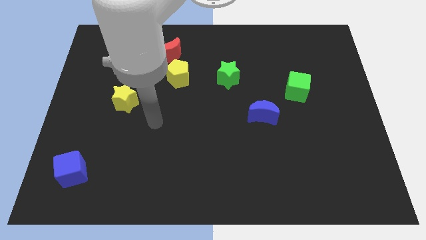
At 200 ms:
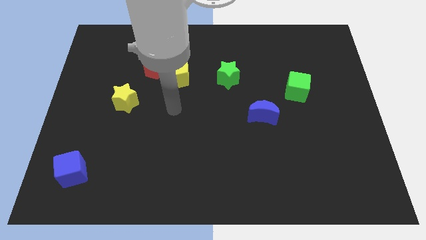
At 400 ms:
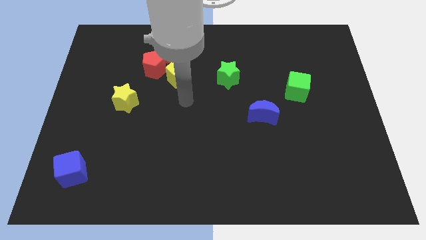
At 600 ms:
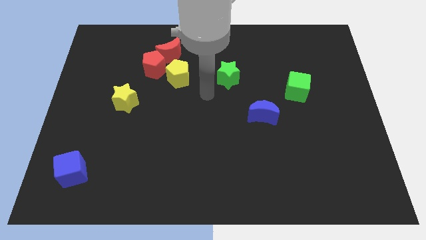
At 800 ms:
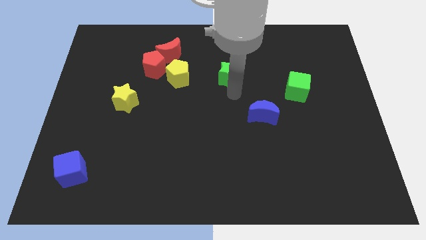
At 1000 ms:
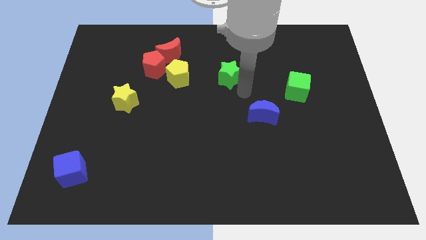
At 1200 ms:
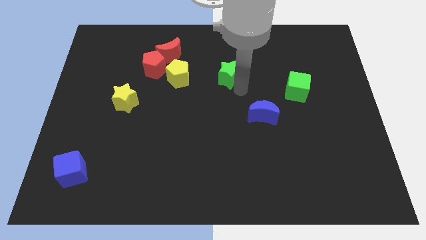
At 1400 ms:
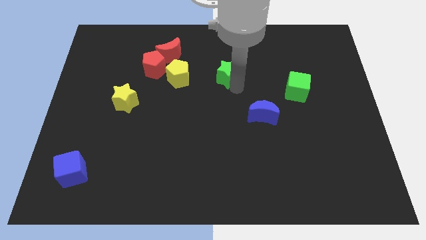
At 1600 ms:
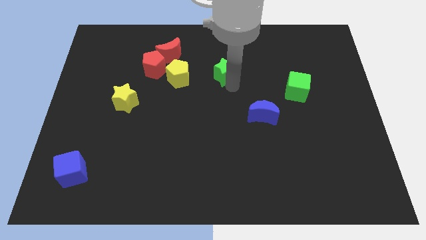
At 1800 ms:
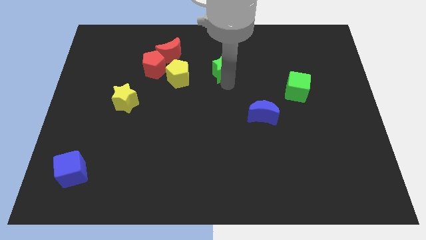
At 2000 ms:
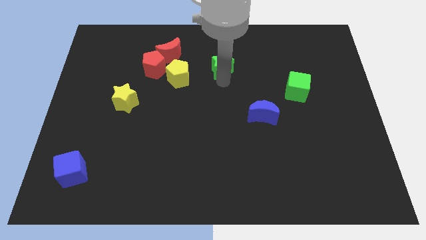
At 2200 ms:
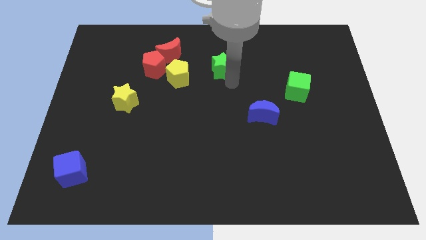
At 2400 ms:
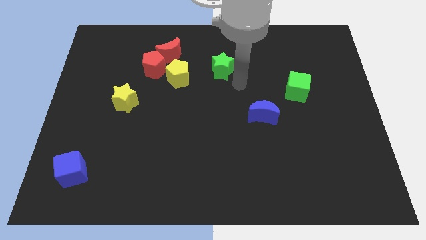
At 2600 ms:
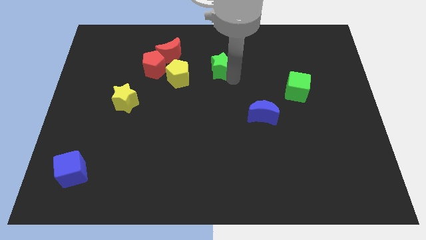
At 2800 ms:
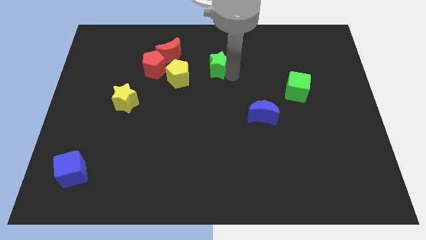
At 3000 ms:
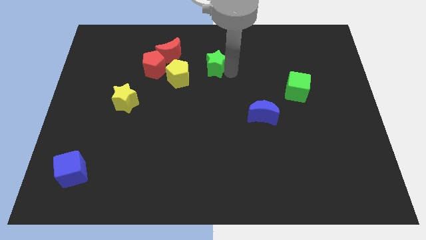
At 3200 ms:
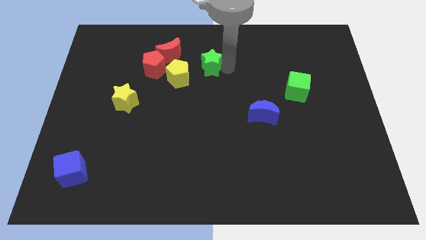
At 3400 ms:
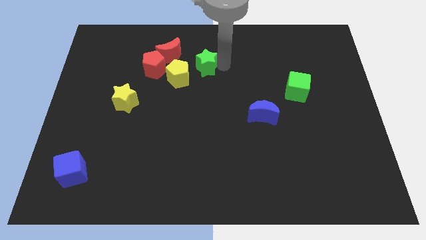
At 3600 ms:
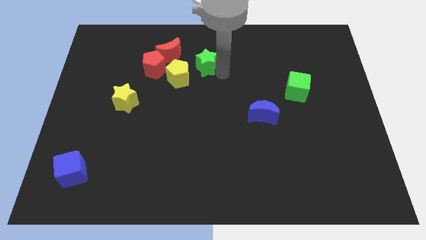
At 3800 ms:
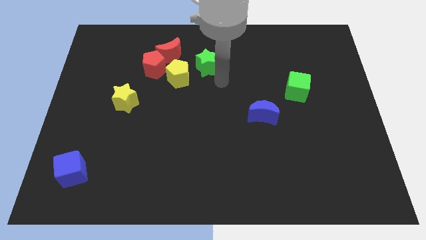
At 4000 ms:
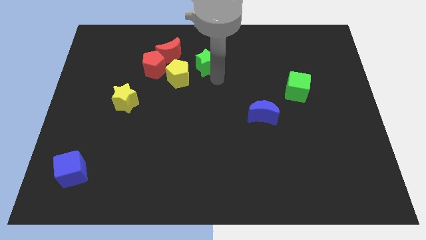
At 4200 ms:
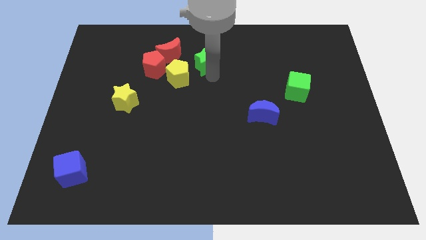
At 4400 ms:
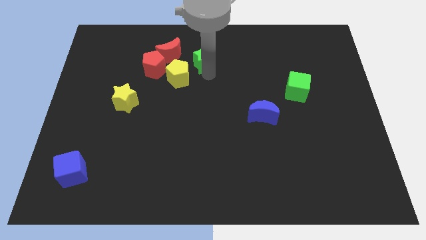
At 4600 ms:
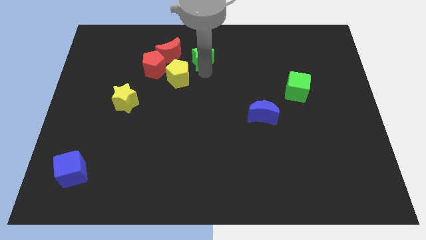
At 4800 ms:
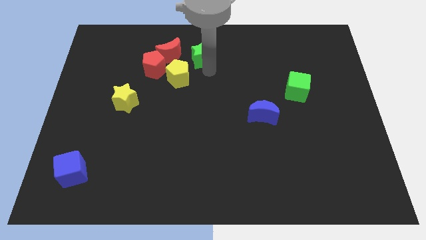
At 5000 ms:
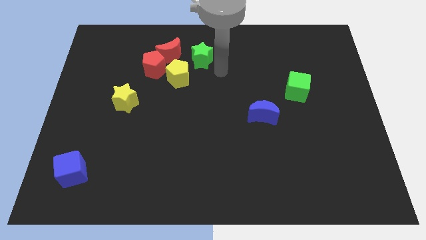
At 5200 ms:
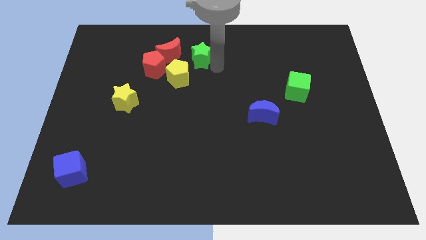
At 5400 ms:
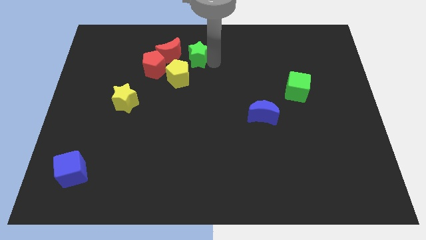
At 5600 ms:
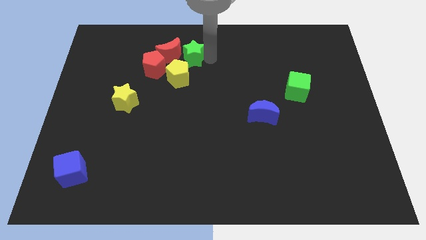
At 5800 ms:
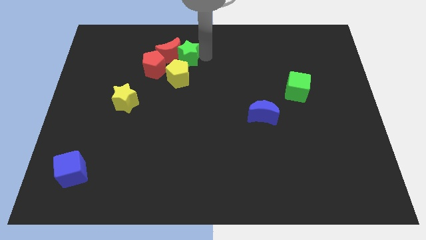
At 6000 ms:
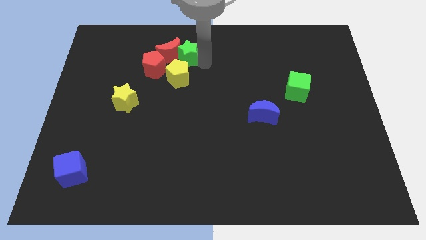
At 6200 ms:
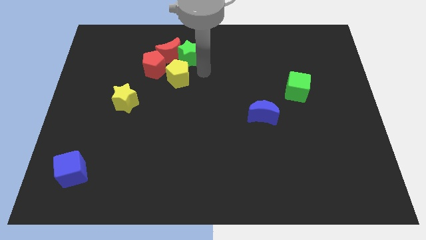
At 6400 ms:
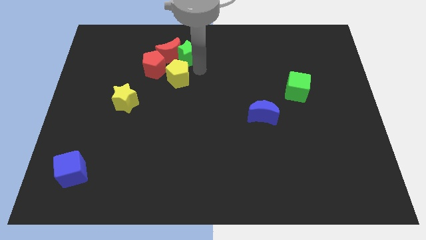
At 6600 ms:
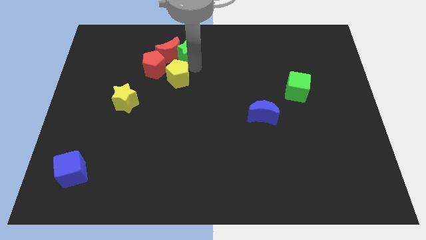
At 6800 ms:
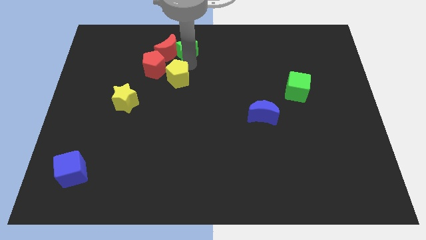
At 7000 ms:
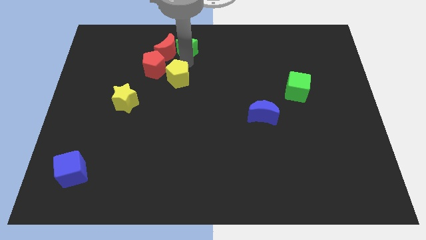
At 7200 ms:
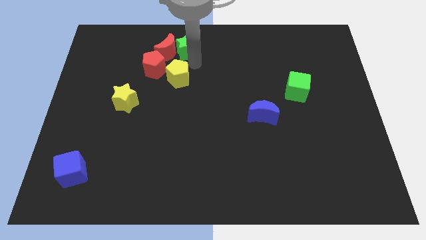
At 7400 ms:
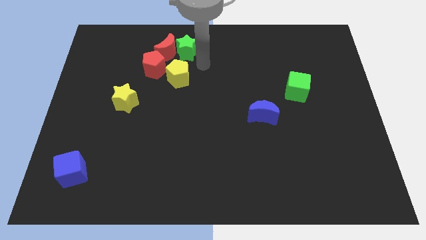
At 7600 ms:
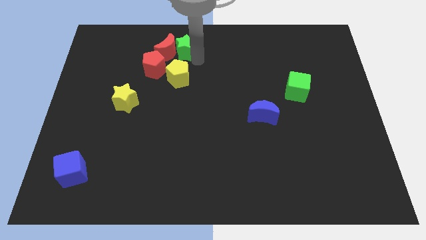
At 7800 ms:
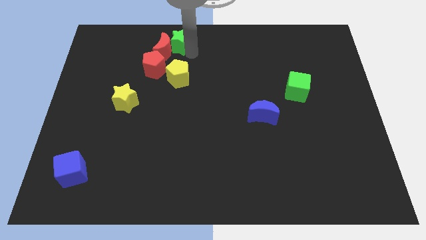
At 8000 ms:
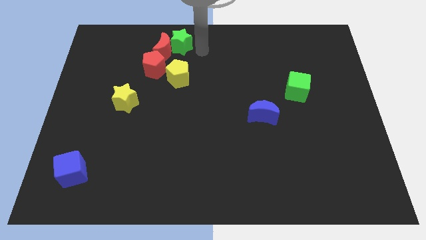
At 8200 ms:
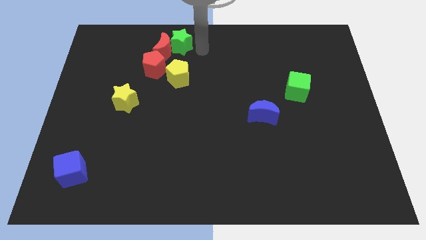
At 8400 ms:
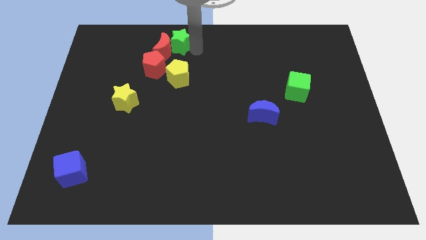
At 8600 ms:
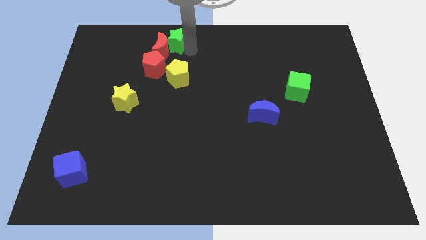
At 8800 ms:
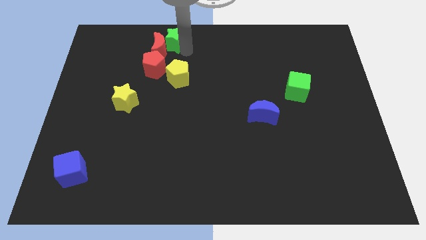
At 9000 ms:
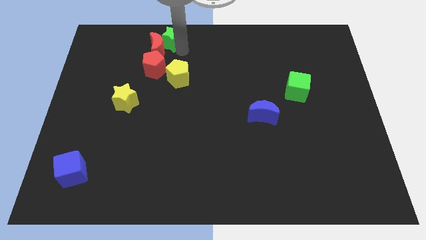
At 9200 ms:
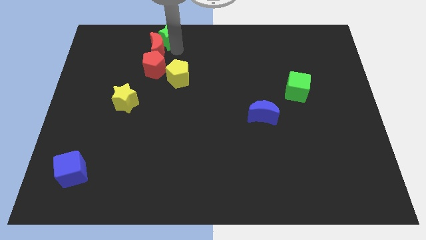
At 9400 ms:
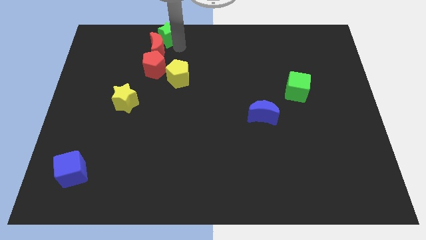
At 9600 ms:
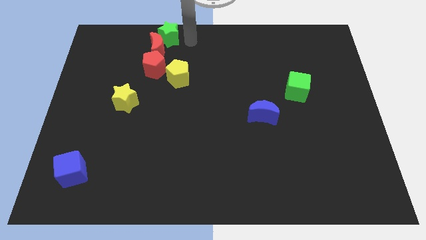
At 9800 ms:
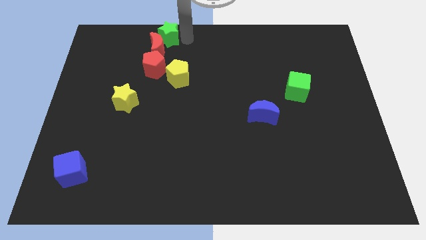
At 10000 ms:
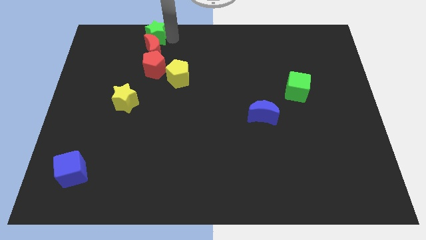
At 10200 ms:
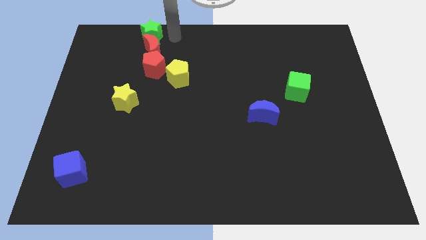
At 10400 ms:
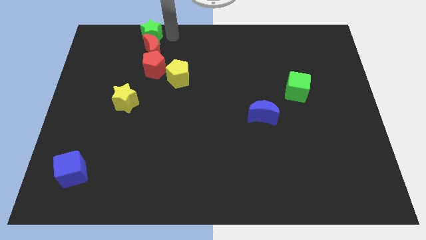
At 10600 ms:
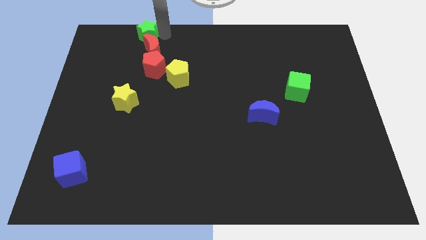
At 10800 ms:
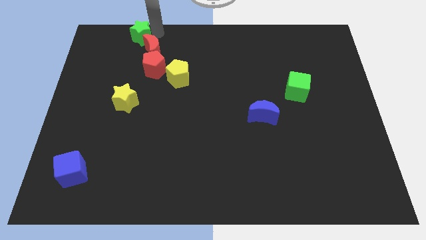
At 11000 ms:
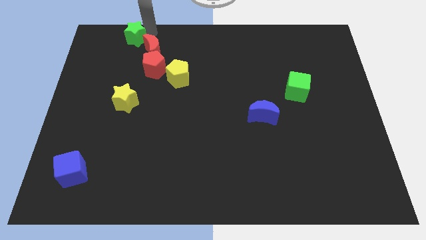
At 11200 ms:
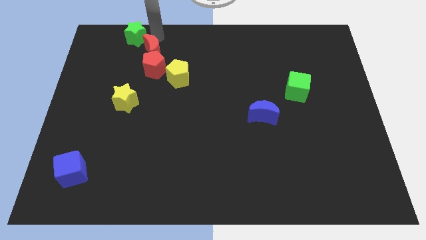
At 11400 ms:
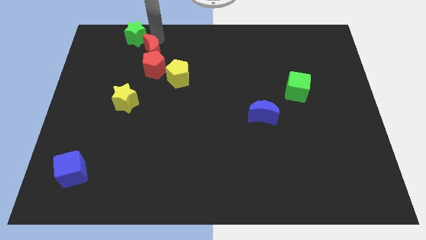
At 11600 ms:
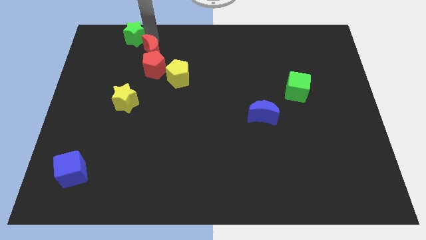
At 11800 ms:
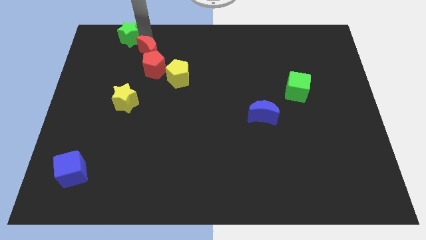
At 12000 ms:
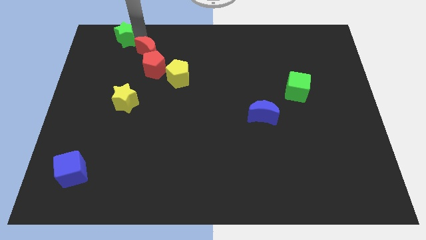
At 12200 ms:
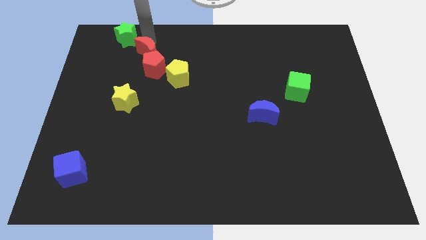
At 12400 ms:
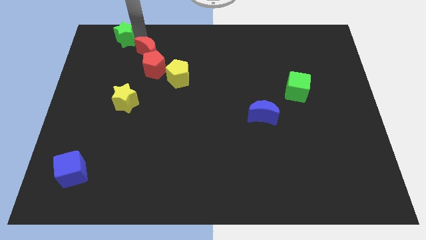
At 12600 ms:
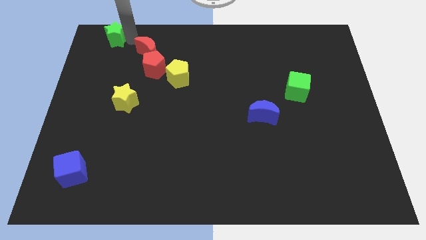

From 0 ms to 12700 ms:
move the green star to the top left
